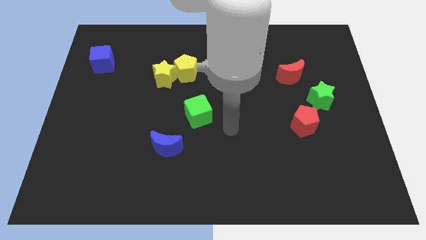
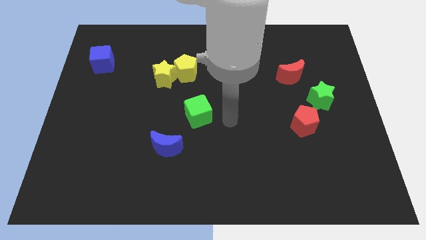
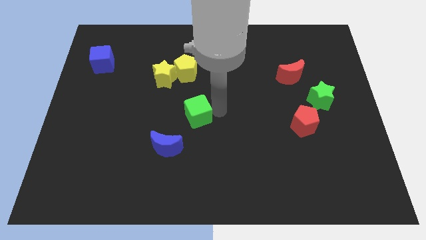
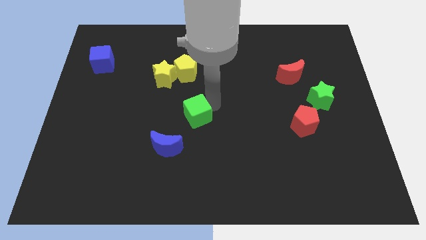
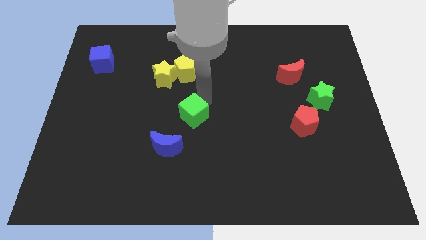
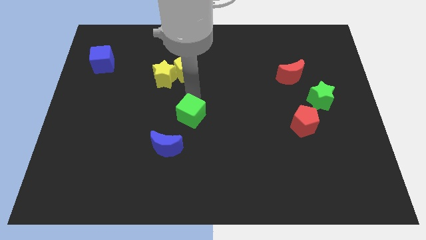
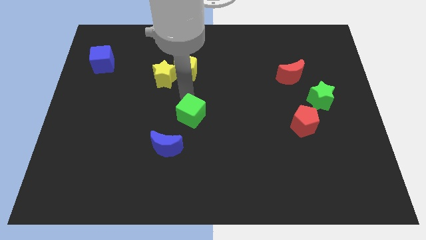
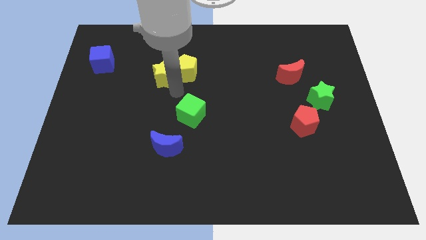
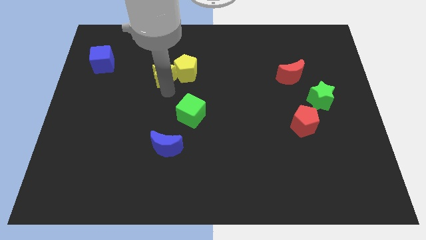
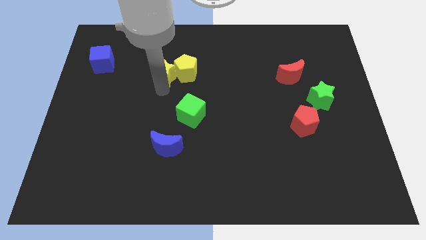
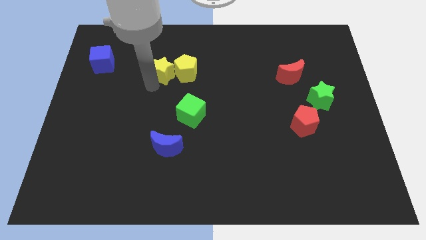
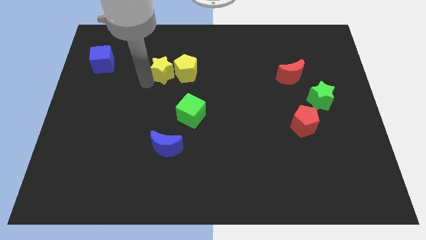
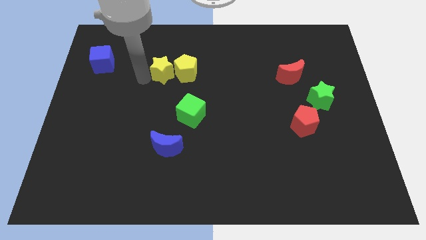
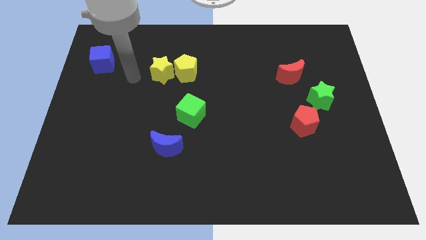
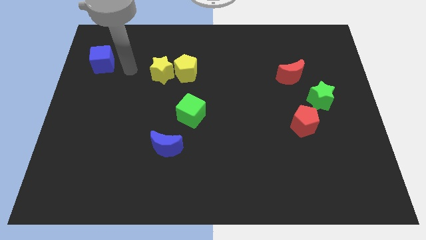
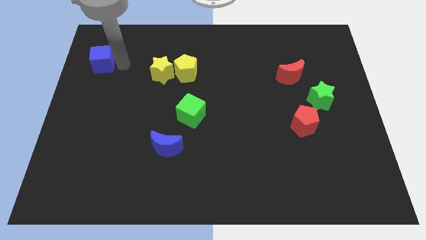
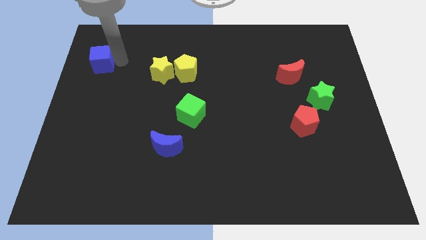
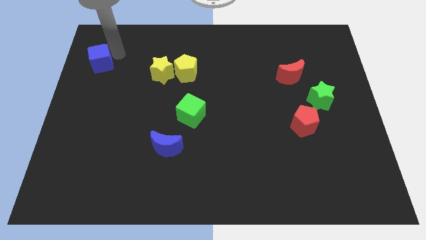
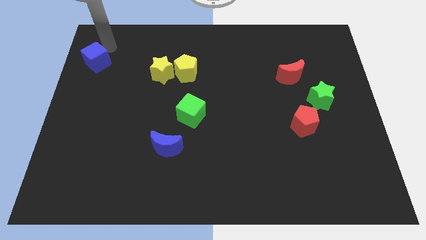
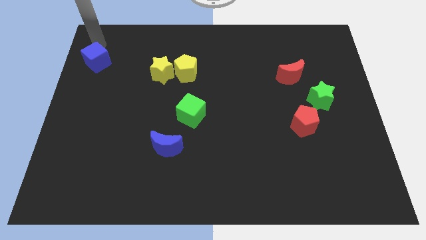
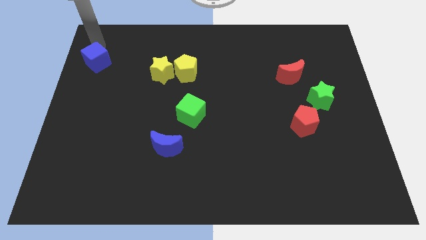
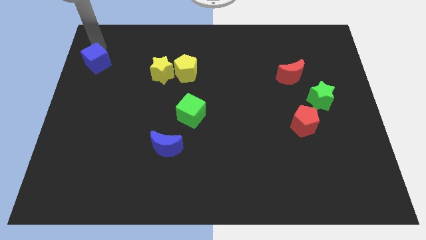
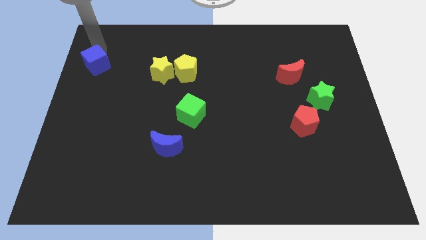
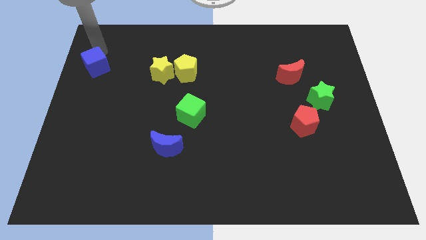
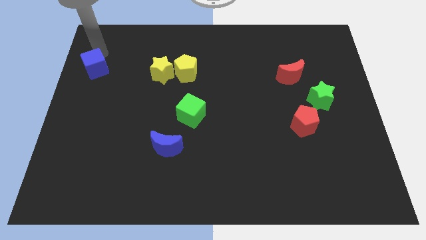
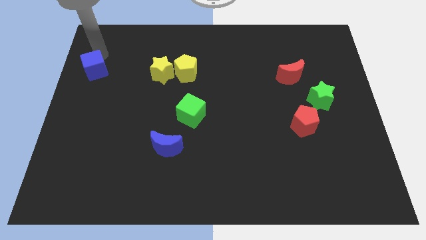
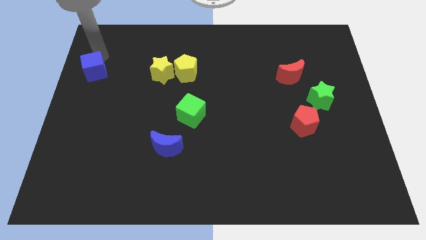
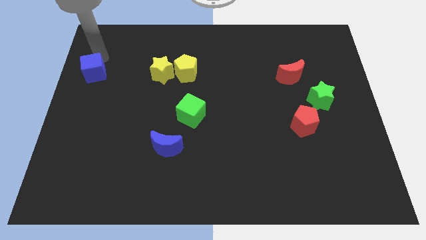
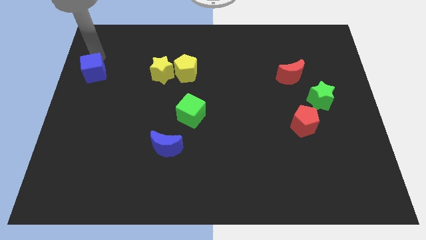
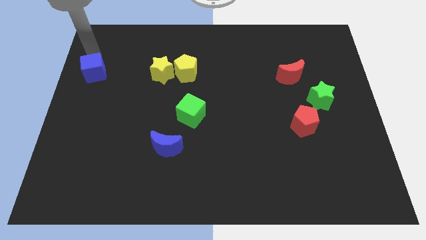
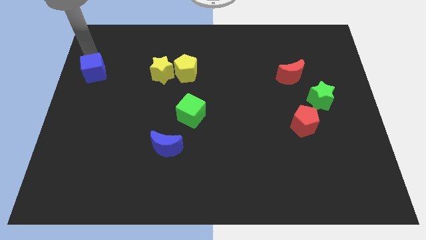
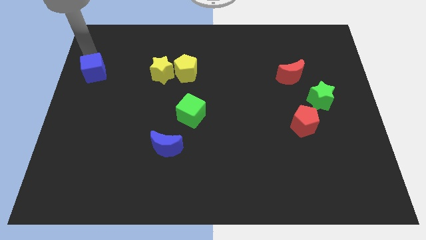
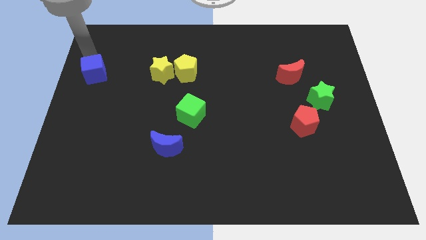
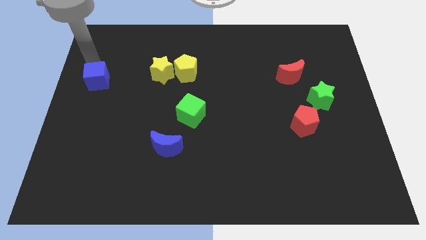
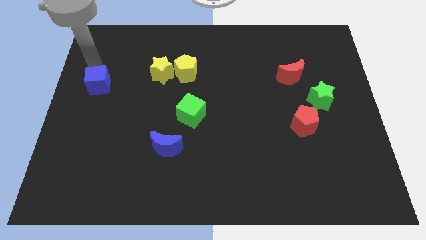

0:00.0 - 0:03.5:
slightly push the blue cube downwards

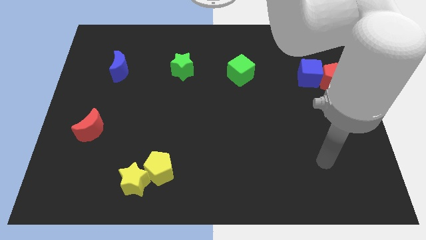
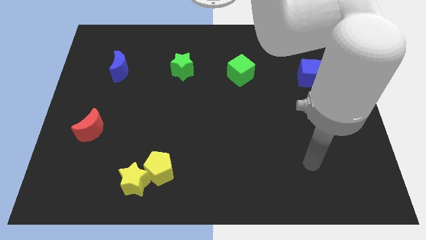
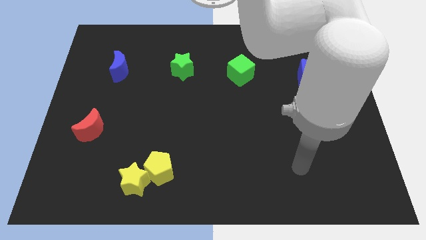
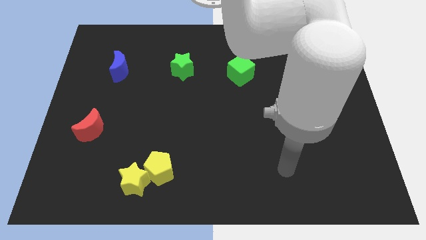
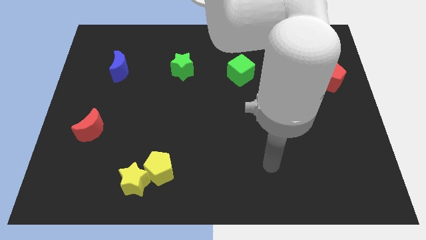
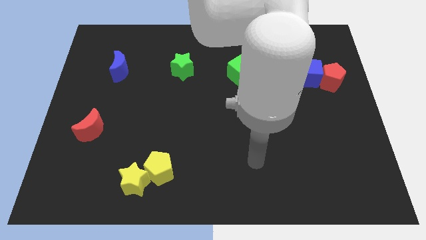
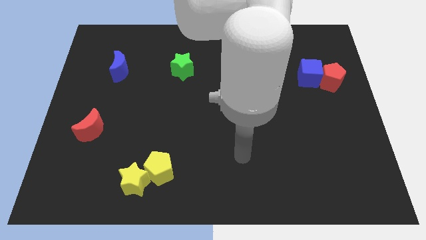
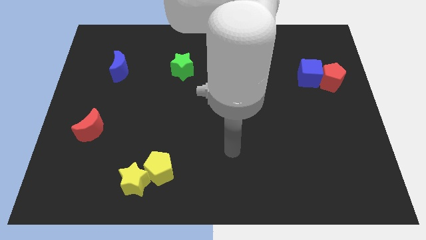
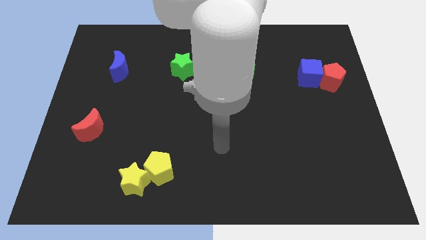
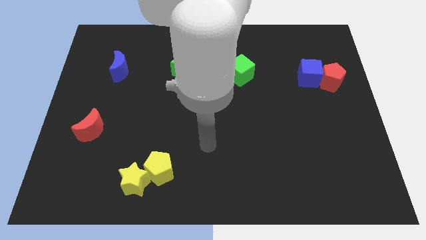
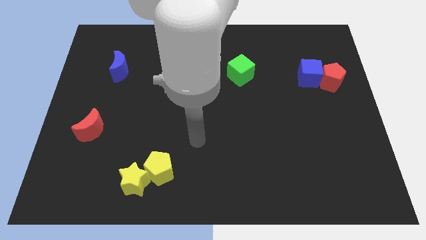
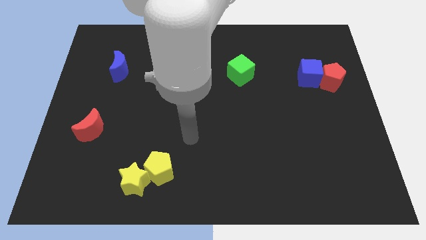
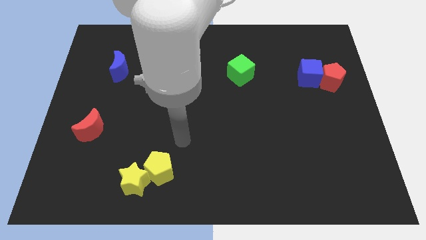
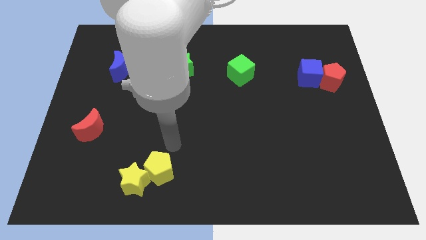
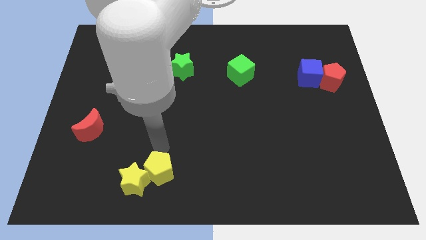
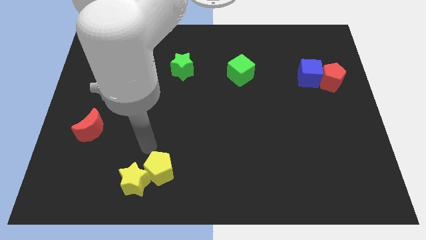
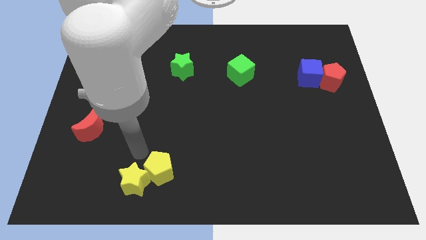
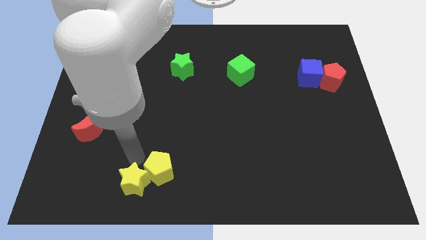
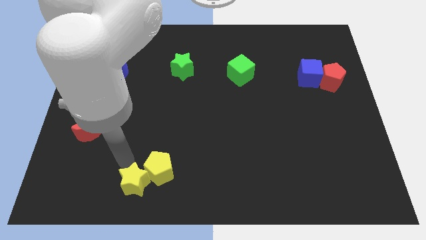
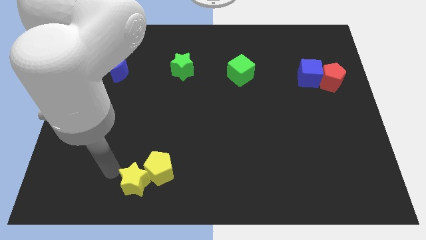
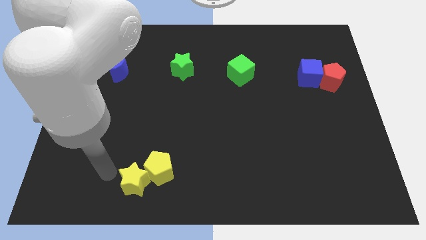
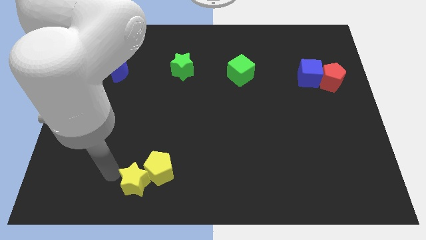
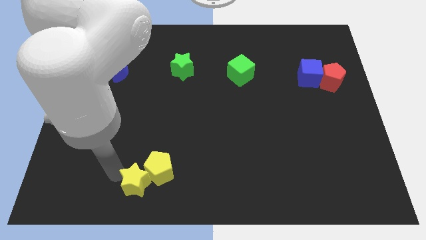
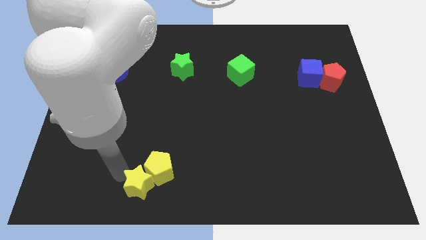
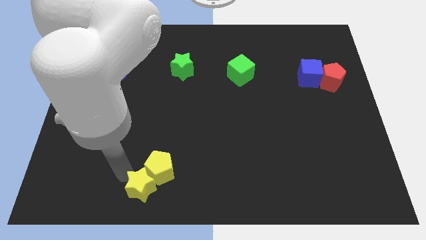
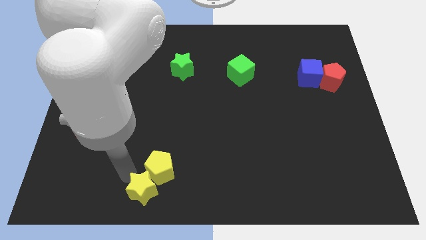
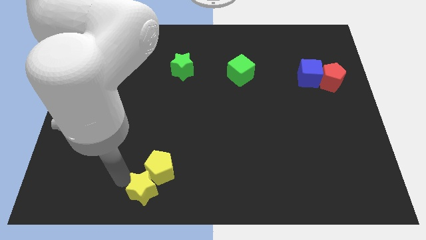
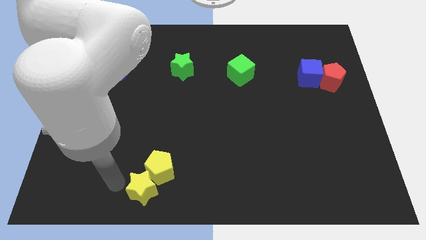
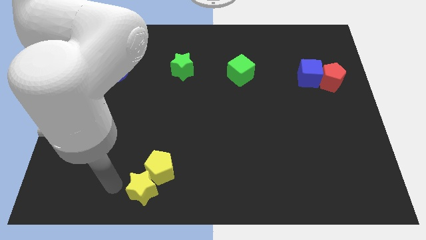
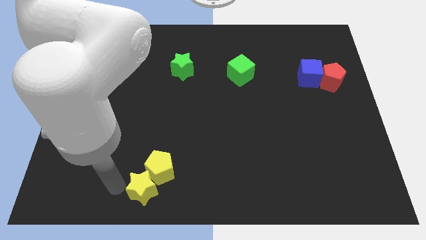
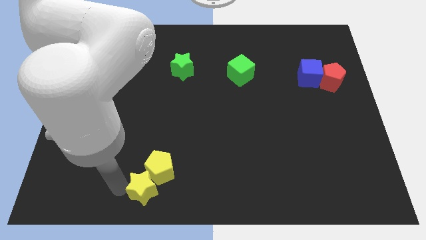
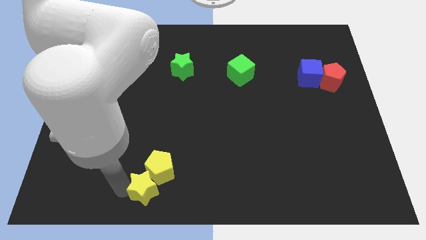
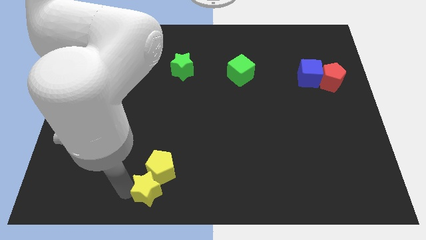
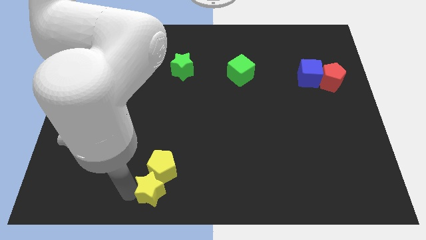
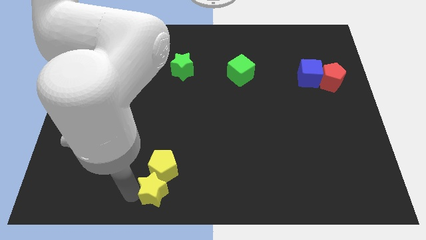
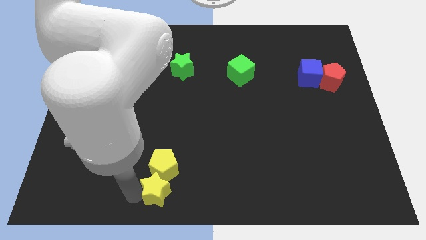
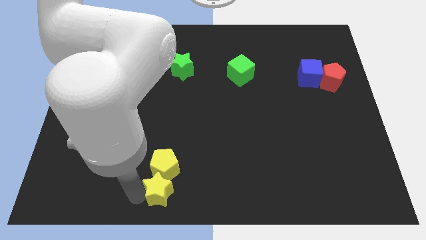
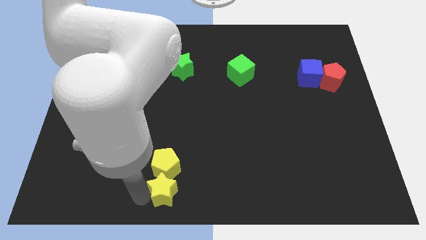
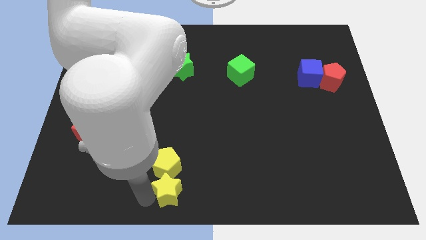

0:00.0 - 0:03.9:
slightly push the yellow star to the right

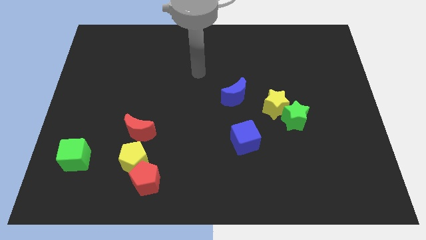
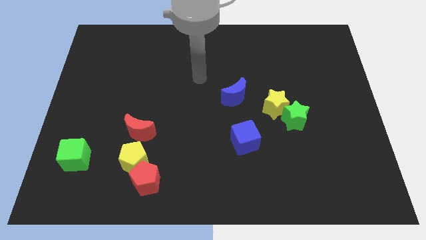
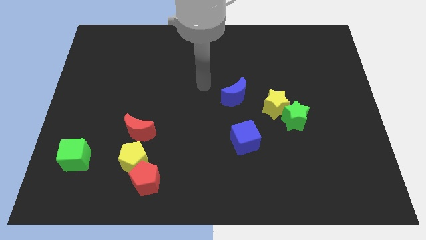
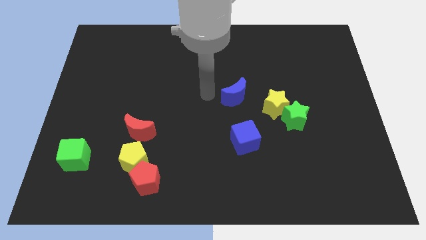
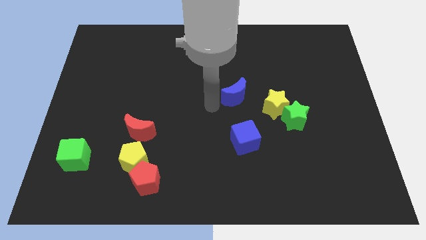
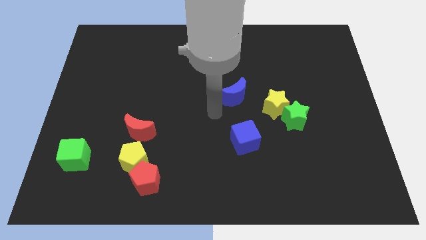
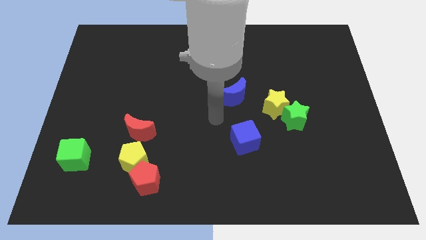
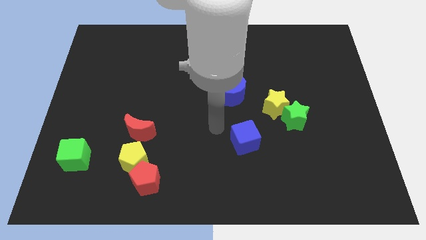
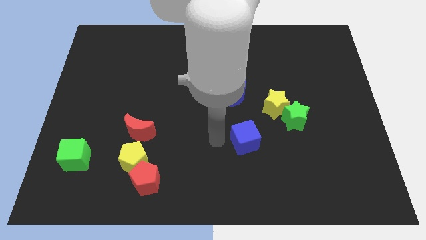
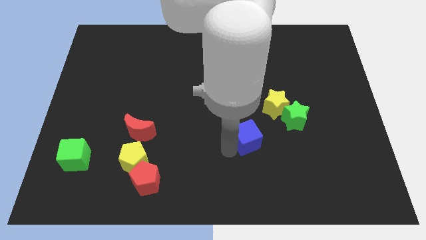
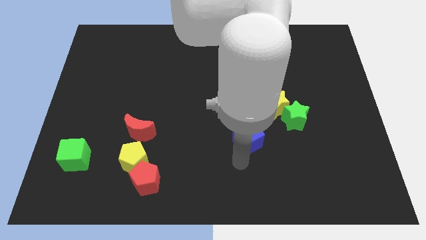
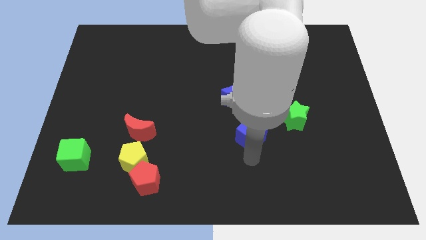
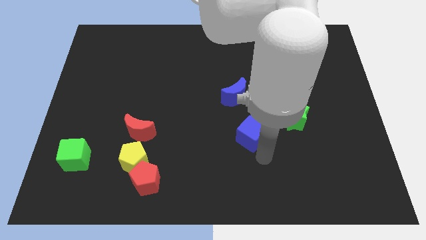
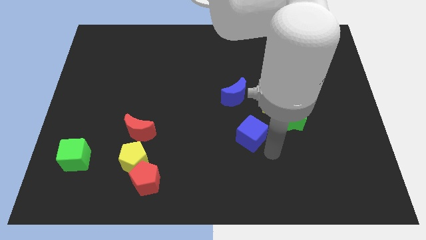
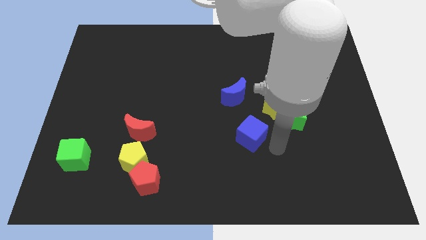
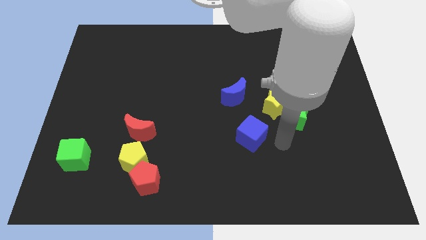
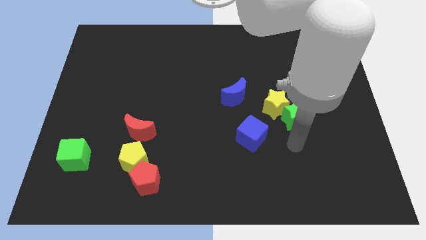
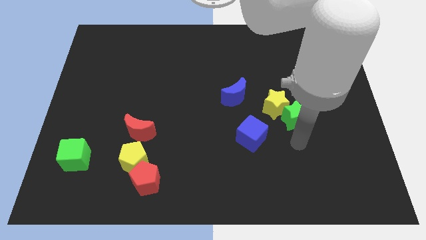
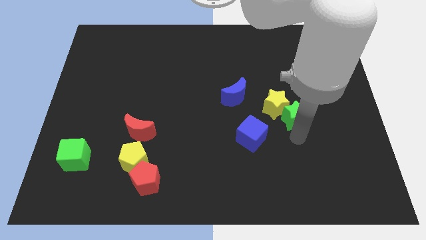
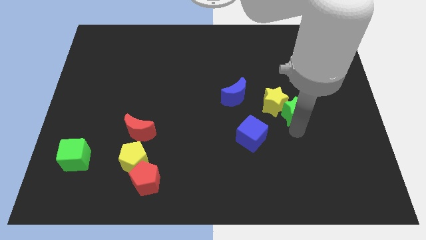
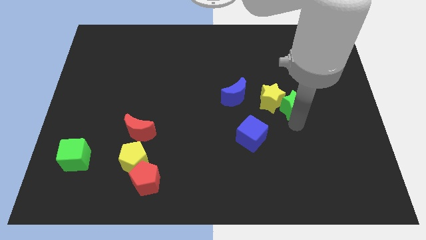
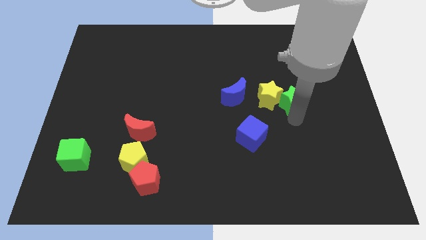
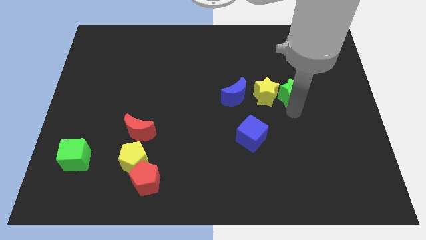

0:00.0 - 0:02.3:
slightly slide the green star upwards
